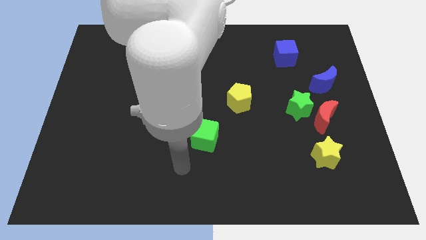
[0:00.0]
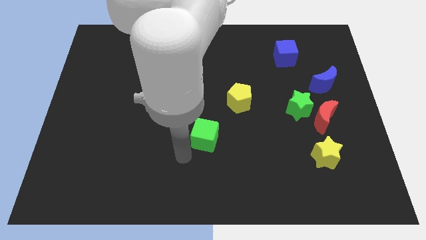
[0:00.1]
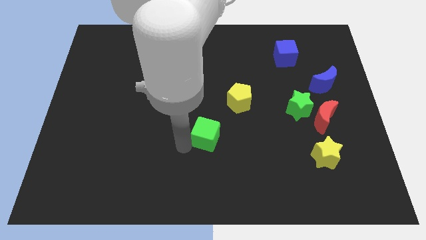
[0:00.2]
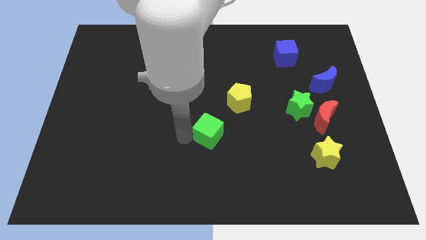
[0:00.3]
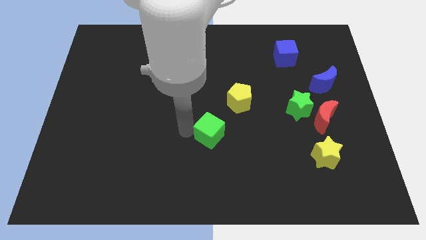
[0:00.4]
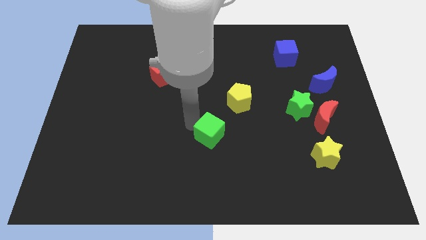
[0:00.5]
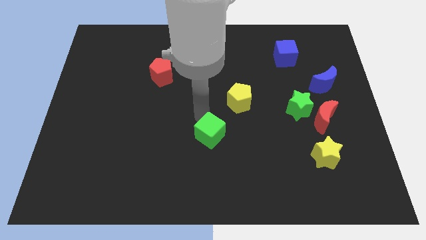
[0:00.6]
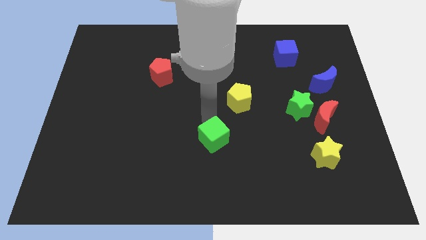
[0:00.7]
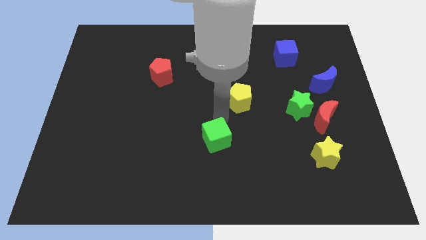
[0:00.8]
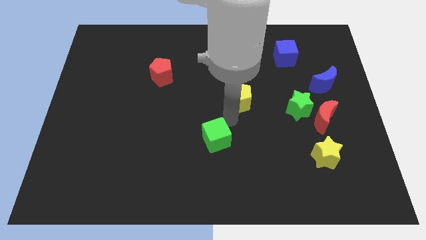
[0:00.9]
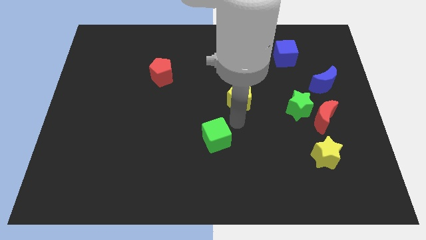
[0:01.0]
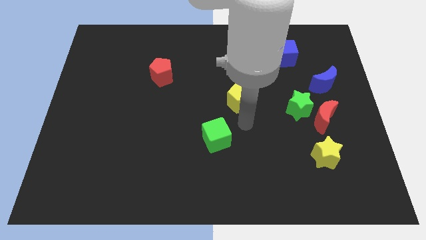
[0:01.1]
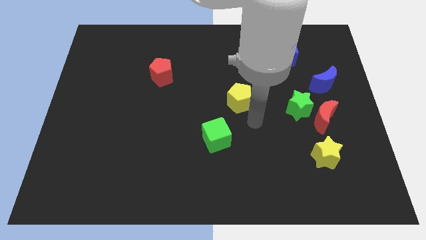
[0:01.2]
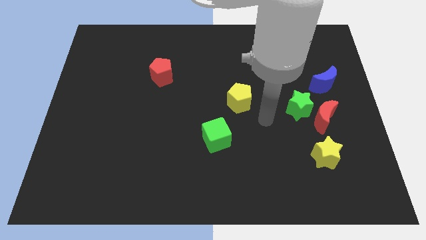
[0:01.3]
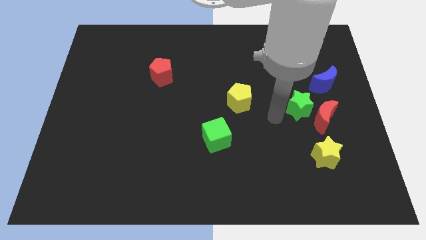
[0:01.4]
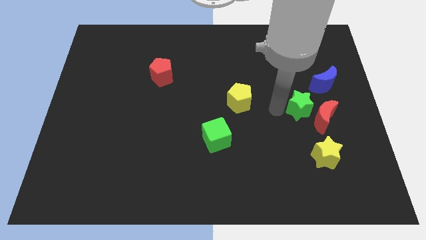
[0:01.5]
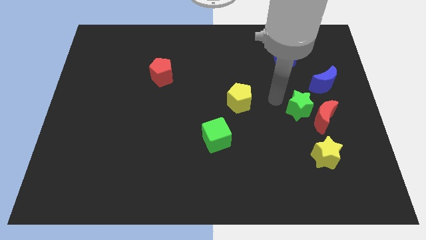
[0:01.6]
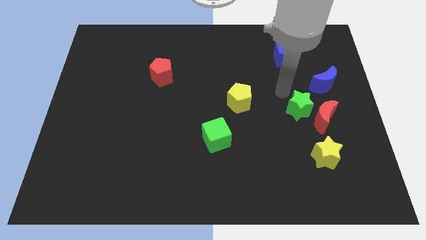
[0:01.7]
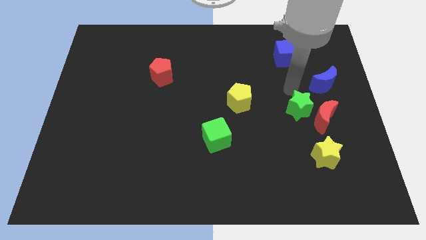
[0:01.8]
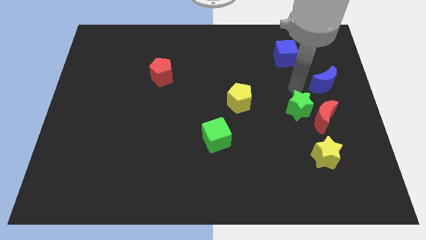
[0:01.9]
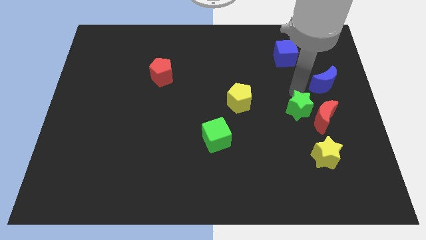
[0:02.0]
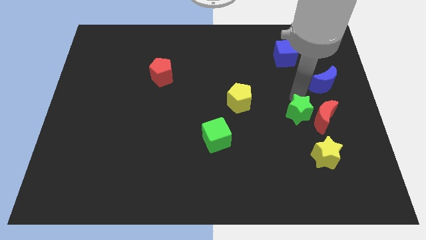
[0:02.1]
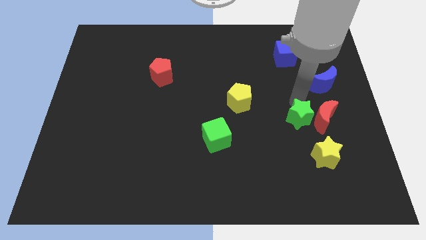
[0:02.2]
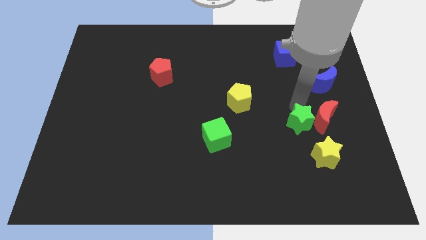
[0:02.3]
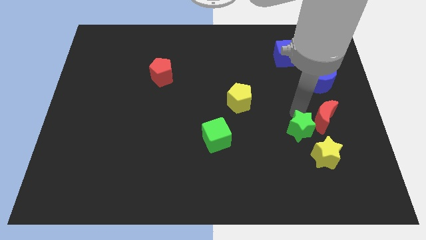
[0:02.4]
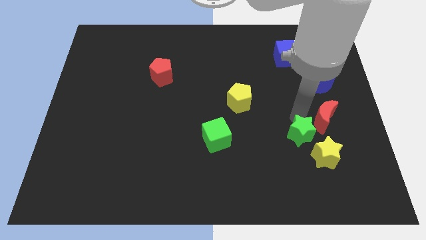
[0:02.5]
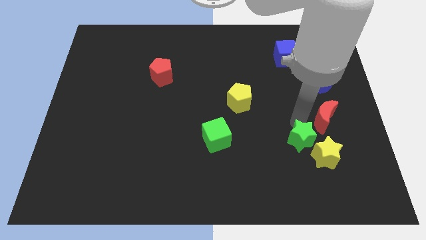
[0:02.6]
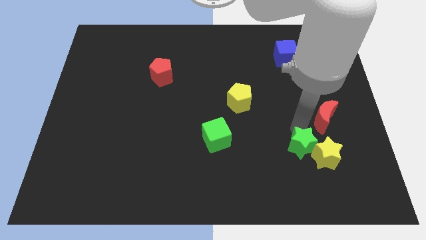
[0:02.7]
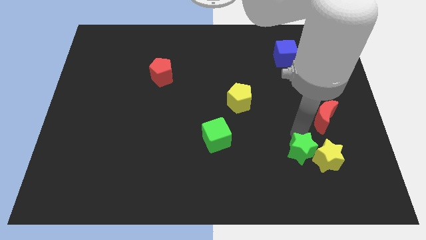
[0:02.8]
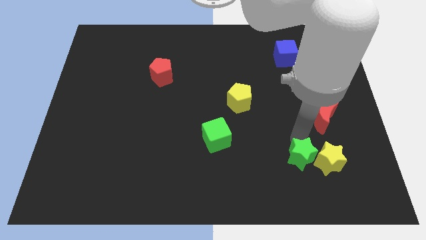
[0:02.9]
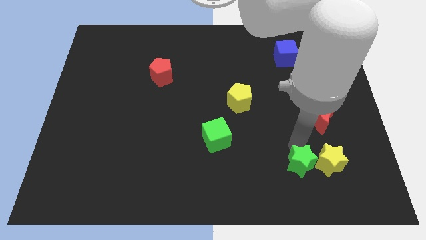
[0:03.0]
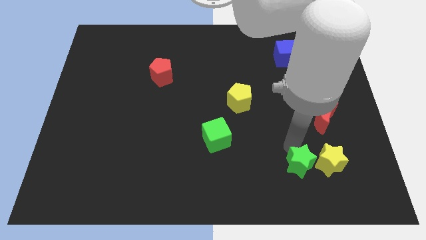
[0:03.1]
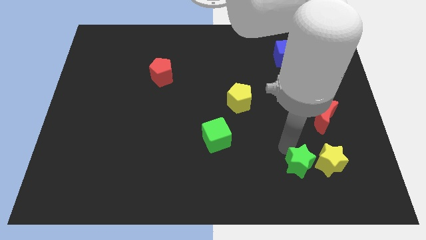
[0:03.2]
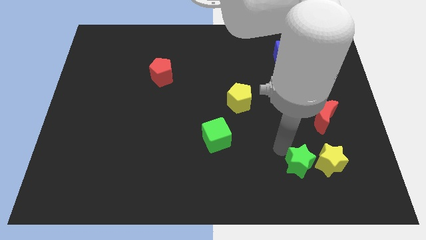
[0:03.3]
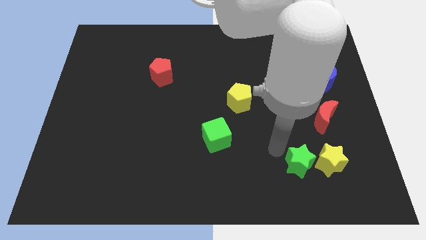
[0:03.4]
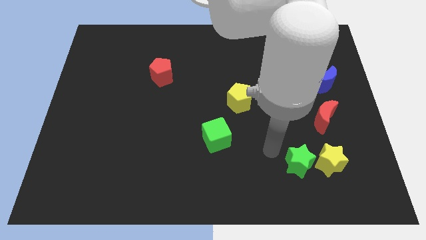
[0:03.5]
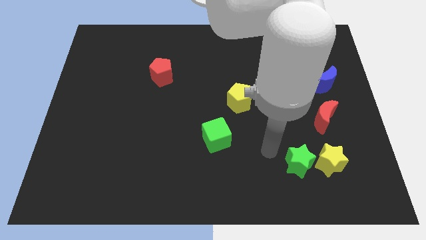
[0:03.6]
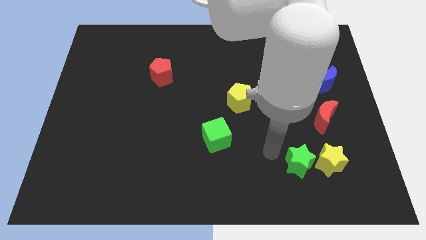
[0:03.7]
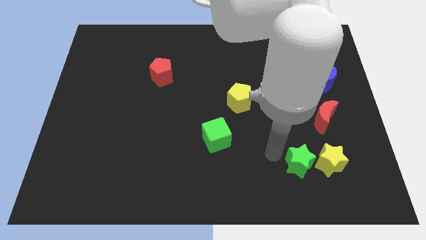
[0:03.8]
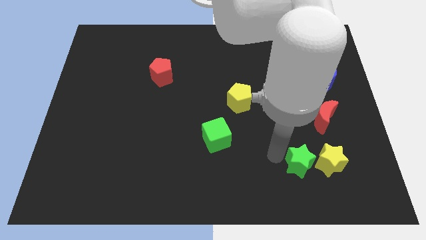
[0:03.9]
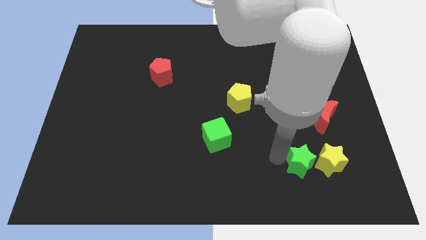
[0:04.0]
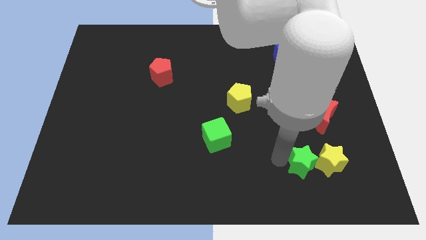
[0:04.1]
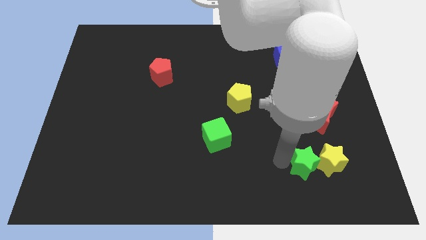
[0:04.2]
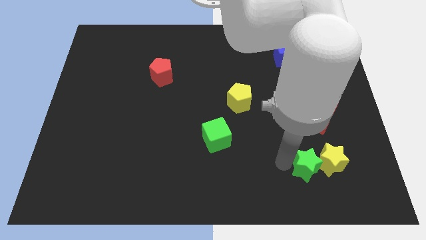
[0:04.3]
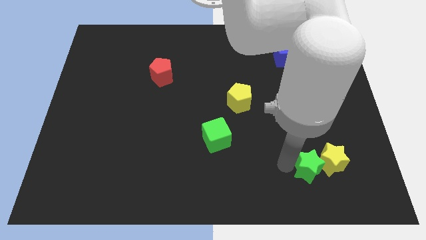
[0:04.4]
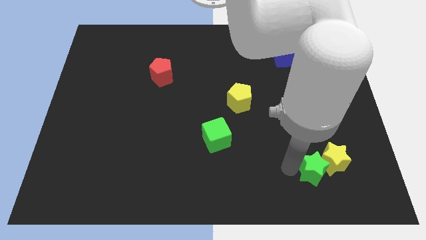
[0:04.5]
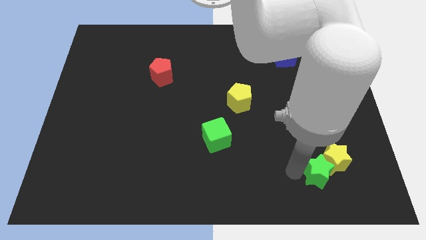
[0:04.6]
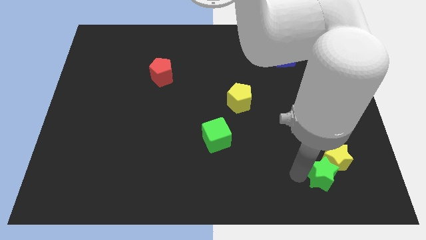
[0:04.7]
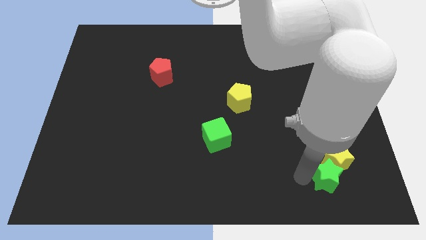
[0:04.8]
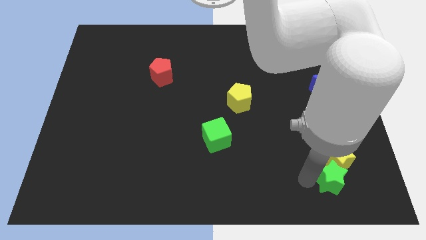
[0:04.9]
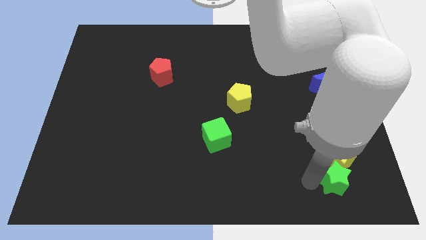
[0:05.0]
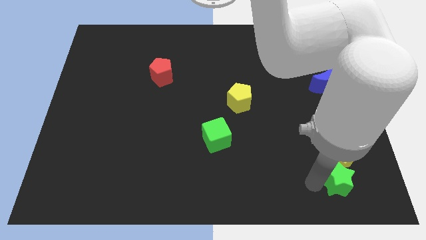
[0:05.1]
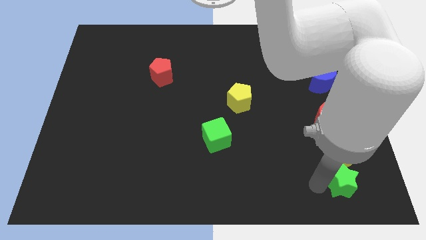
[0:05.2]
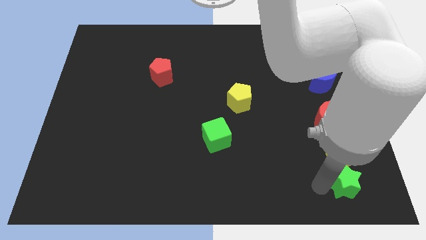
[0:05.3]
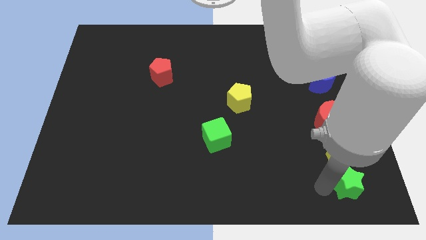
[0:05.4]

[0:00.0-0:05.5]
move the green star to the bottom right of the board
